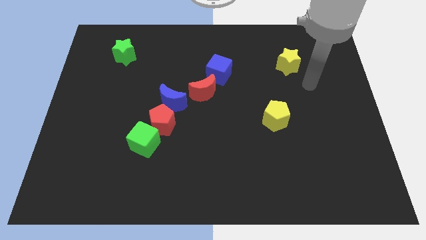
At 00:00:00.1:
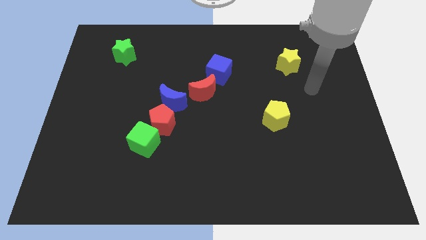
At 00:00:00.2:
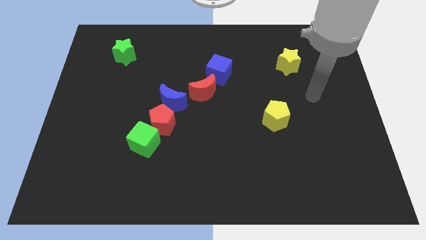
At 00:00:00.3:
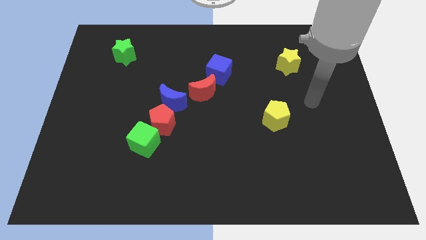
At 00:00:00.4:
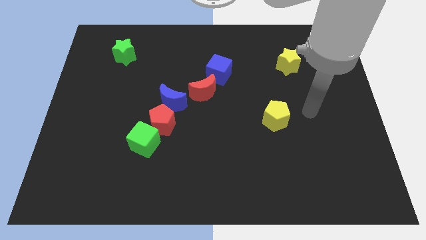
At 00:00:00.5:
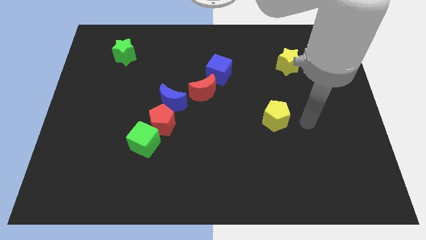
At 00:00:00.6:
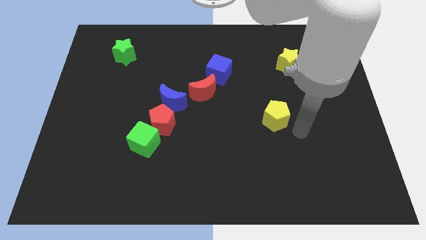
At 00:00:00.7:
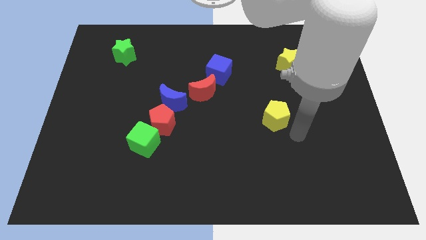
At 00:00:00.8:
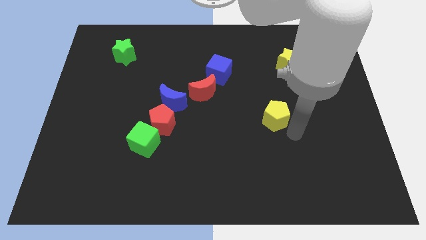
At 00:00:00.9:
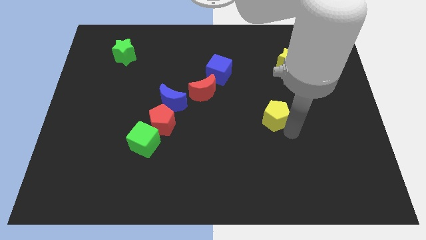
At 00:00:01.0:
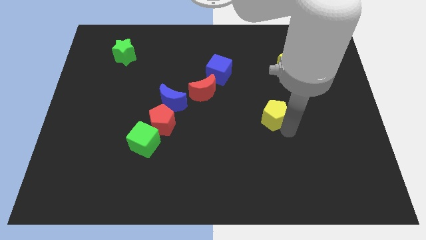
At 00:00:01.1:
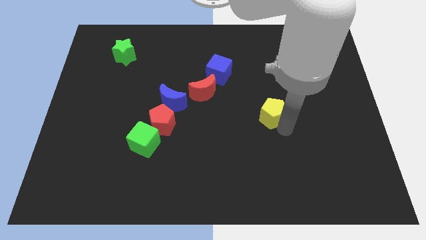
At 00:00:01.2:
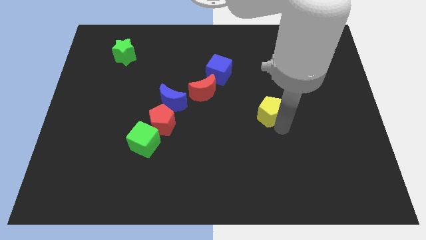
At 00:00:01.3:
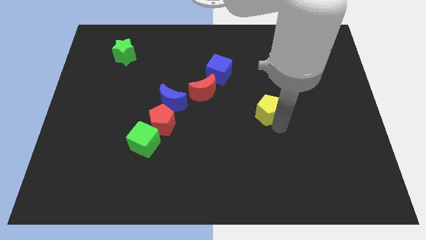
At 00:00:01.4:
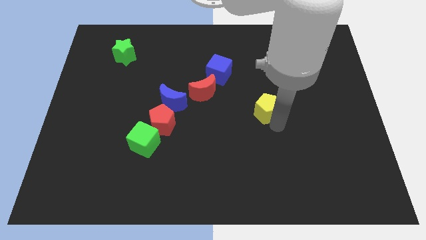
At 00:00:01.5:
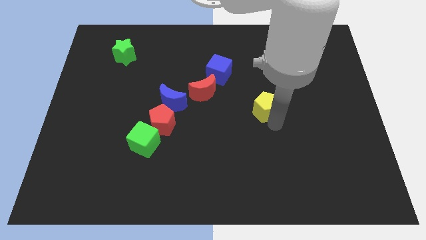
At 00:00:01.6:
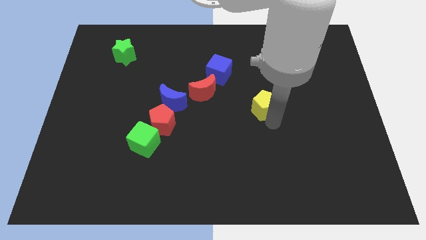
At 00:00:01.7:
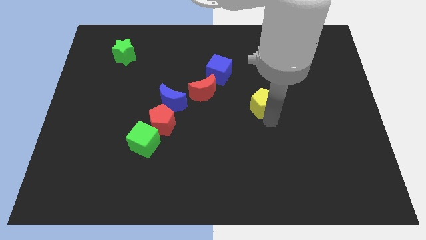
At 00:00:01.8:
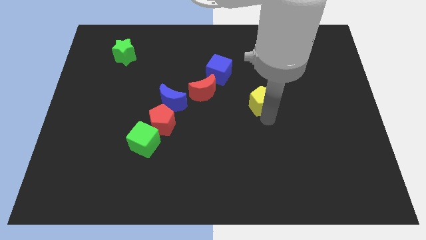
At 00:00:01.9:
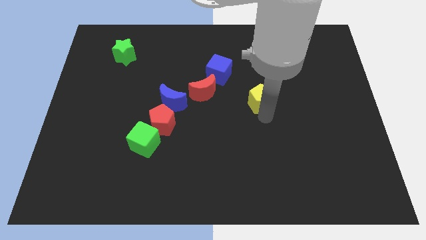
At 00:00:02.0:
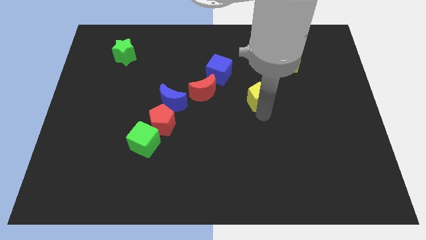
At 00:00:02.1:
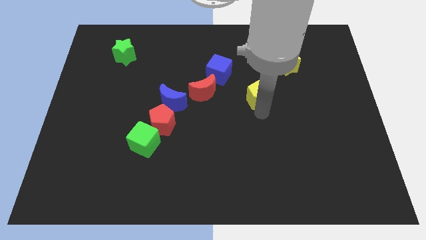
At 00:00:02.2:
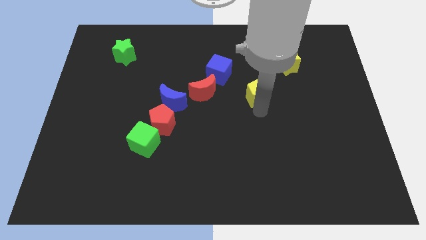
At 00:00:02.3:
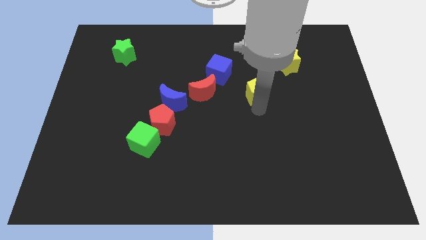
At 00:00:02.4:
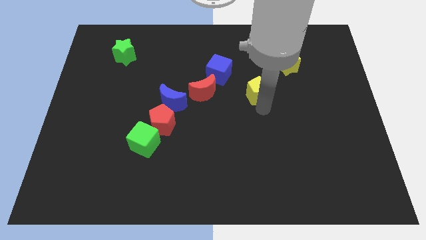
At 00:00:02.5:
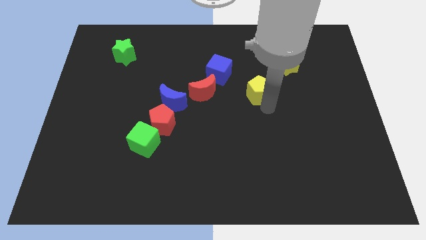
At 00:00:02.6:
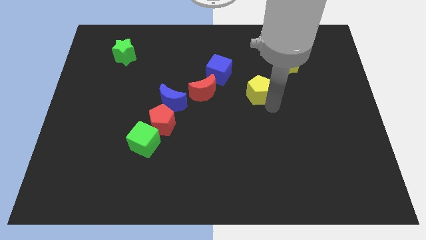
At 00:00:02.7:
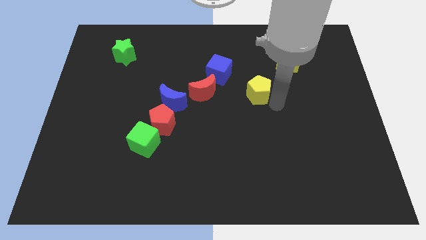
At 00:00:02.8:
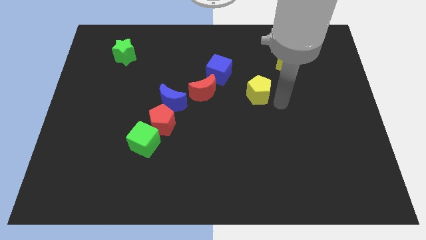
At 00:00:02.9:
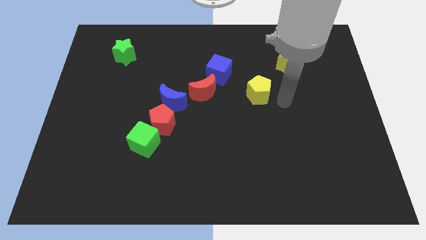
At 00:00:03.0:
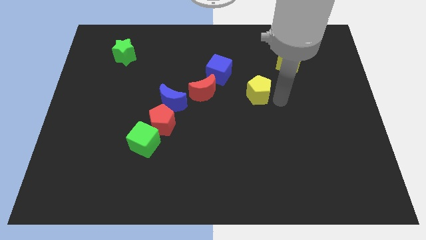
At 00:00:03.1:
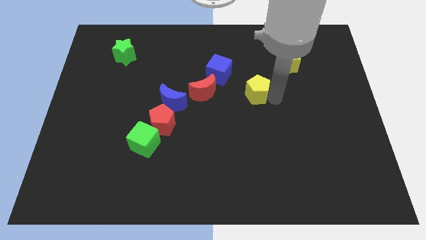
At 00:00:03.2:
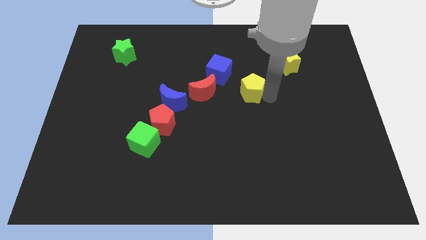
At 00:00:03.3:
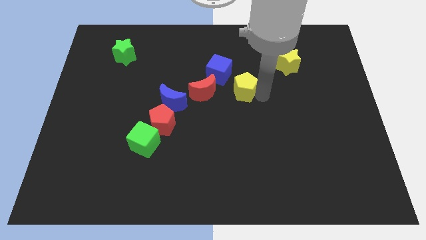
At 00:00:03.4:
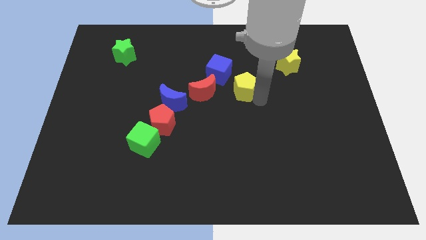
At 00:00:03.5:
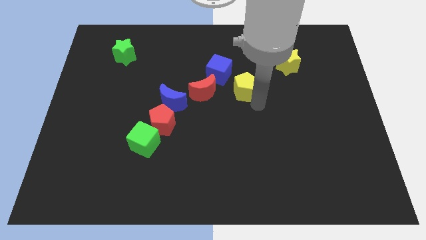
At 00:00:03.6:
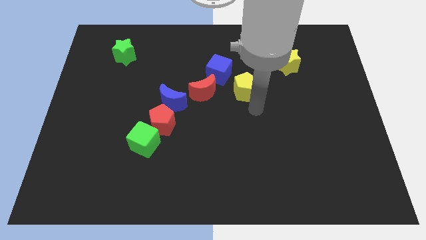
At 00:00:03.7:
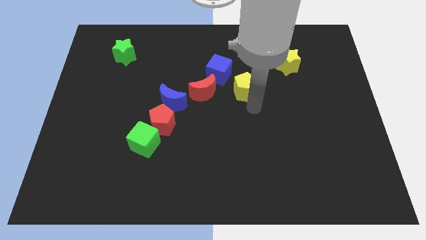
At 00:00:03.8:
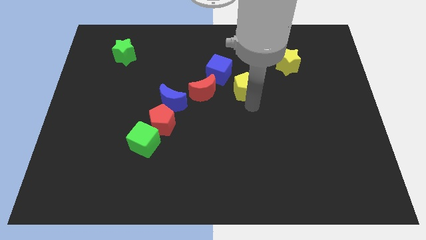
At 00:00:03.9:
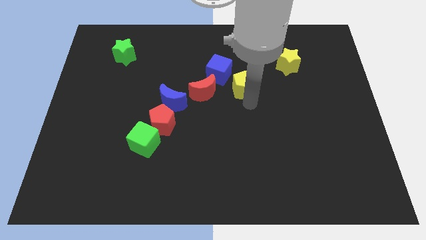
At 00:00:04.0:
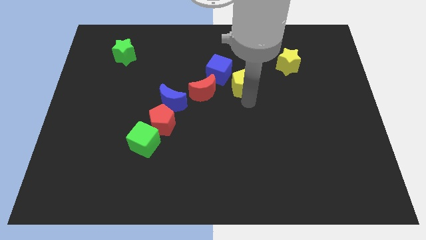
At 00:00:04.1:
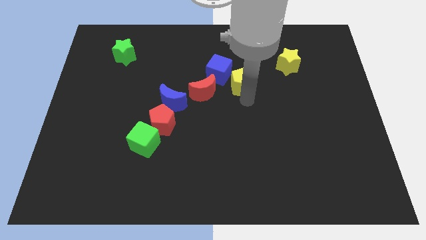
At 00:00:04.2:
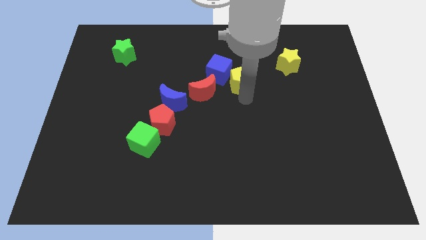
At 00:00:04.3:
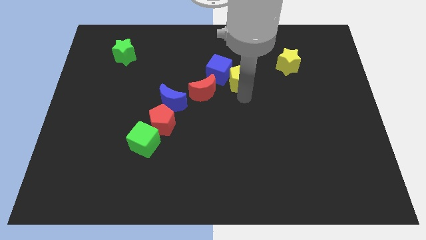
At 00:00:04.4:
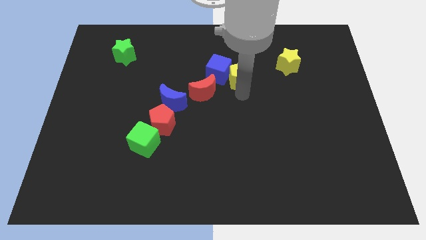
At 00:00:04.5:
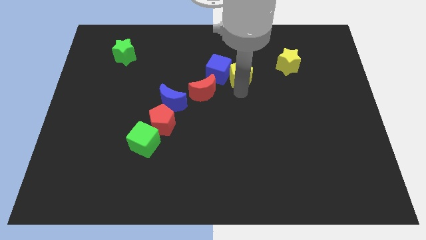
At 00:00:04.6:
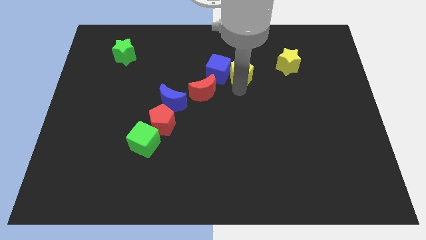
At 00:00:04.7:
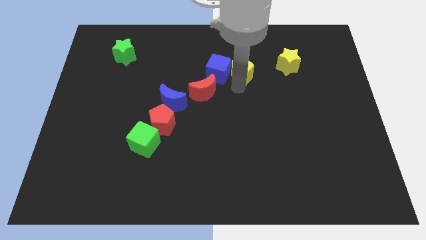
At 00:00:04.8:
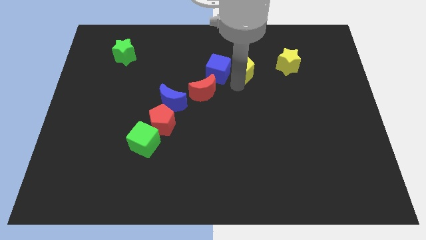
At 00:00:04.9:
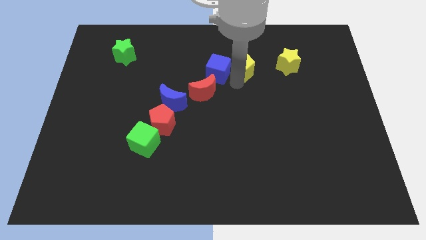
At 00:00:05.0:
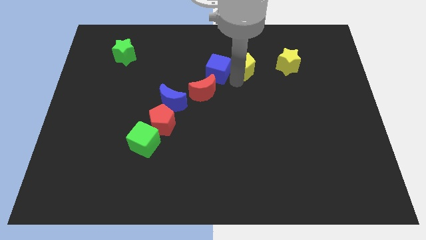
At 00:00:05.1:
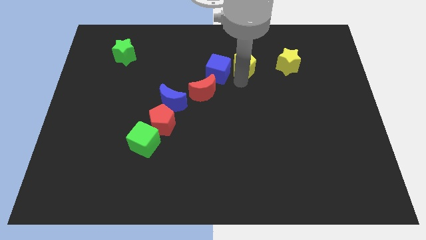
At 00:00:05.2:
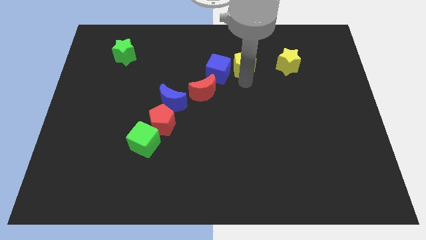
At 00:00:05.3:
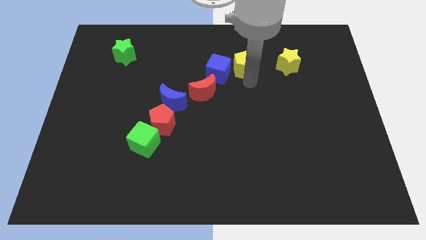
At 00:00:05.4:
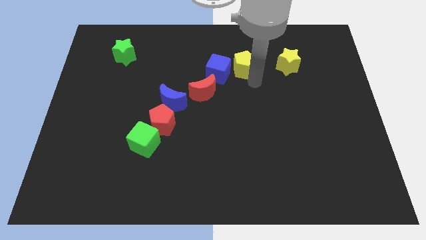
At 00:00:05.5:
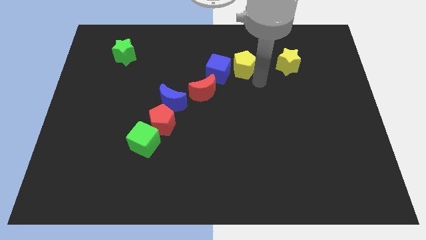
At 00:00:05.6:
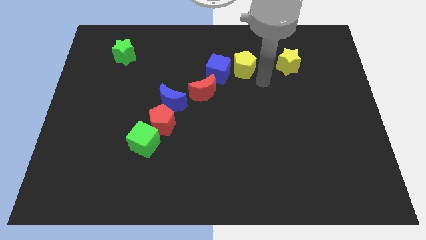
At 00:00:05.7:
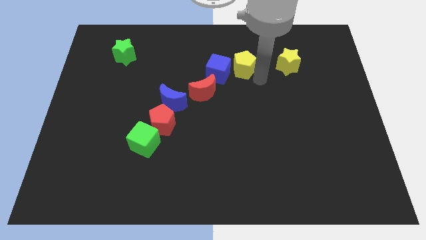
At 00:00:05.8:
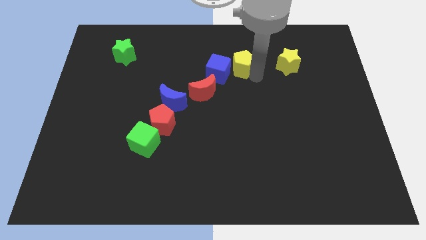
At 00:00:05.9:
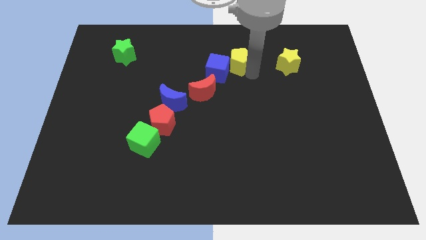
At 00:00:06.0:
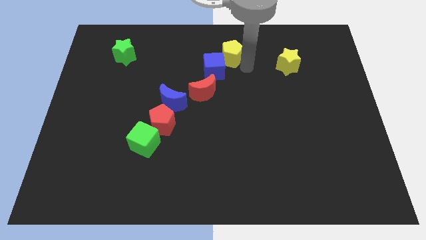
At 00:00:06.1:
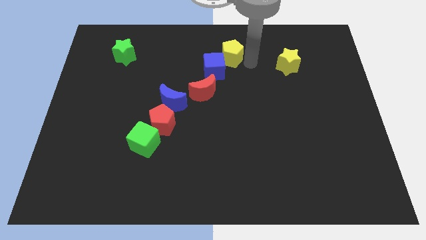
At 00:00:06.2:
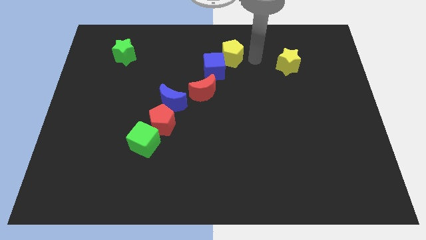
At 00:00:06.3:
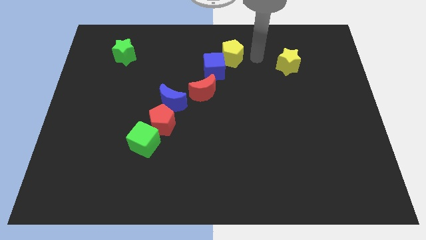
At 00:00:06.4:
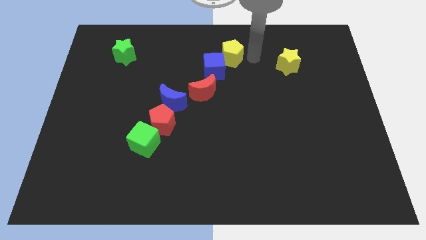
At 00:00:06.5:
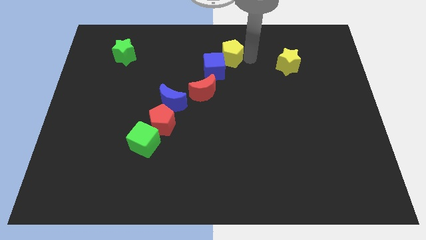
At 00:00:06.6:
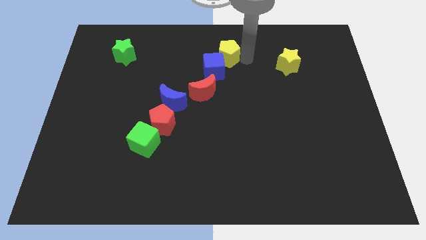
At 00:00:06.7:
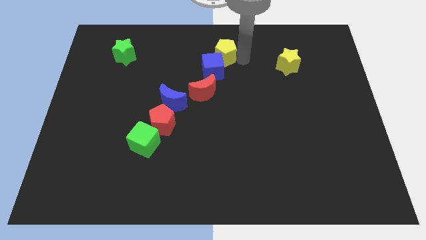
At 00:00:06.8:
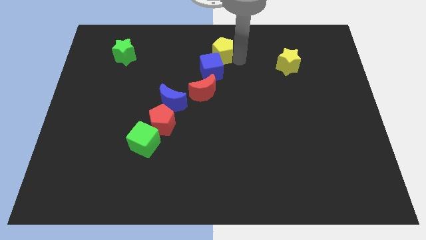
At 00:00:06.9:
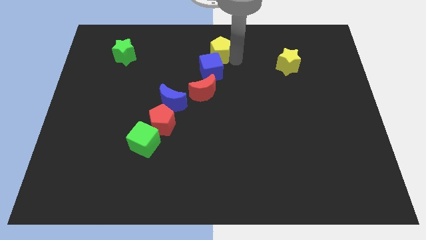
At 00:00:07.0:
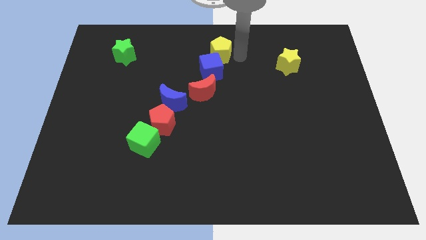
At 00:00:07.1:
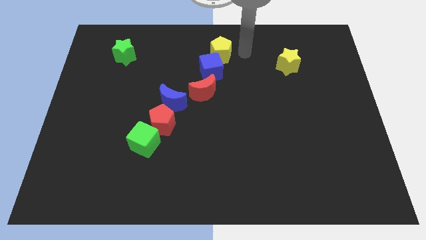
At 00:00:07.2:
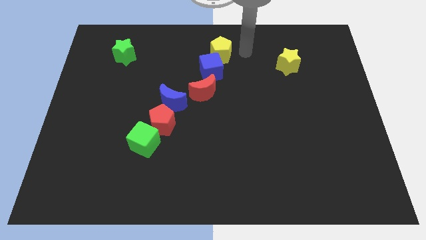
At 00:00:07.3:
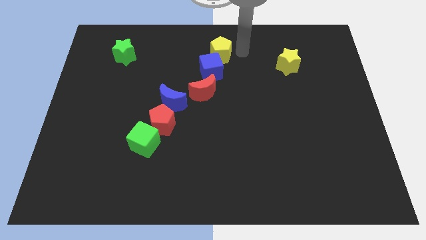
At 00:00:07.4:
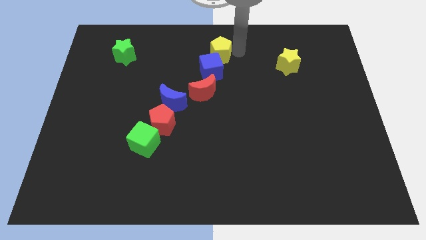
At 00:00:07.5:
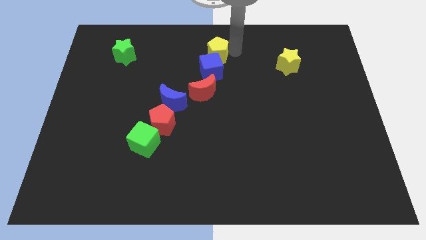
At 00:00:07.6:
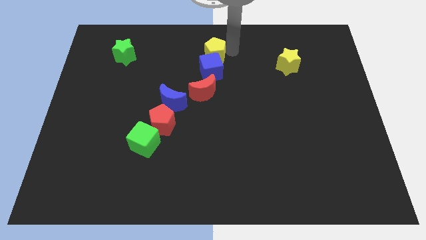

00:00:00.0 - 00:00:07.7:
slide the yellow pentagon diagonally up and to the left of the blue cube
